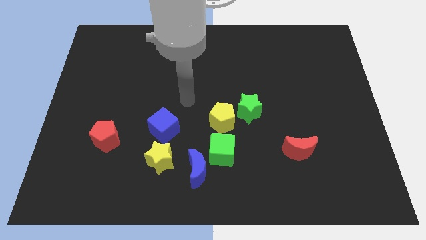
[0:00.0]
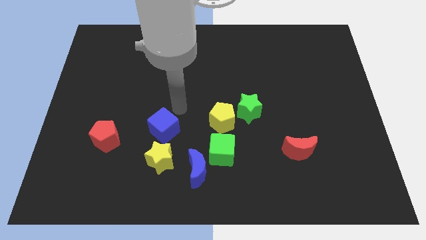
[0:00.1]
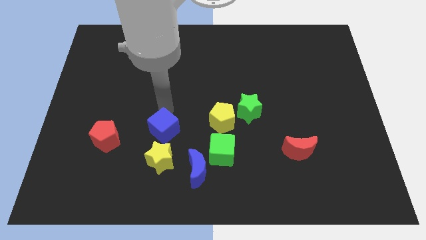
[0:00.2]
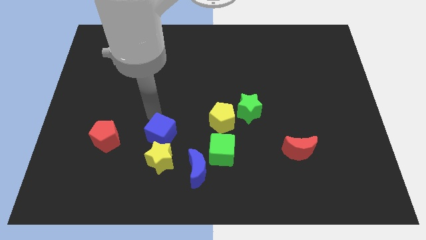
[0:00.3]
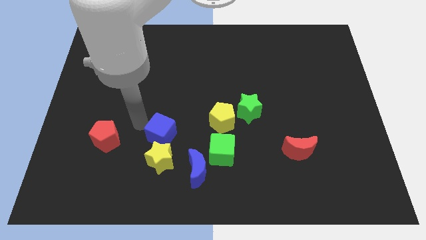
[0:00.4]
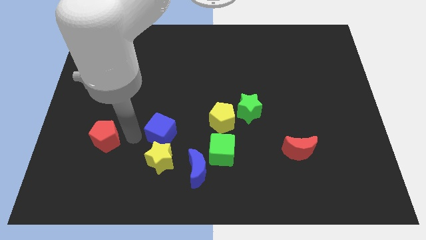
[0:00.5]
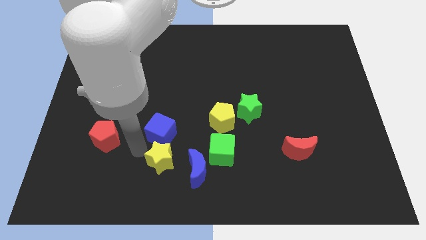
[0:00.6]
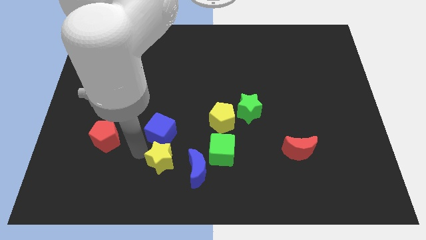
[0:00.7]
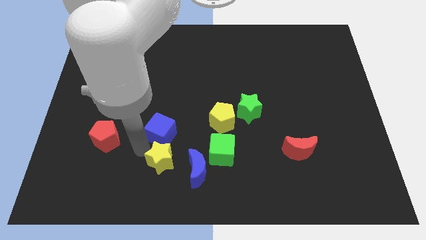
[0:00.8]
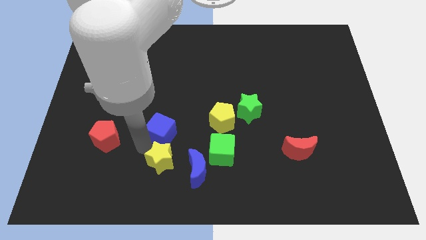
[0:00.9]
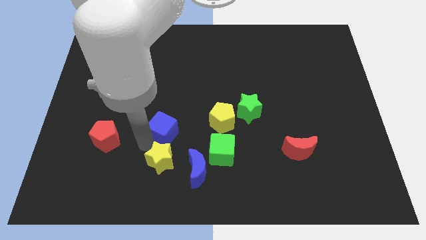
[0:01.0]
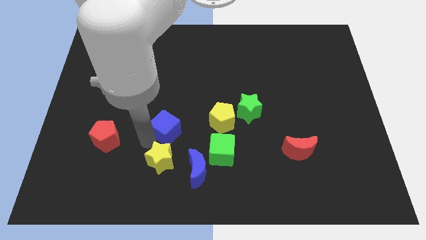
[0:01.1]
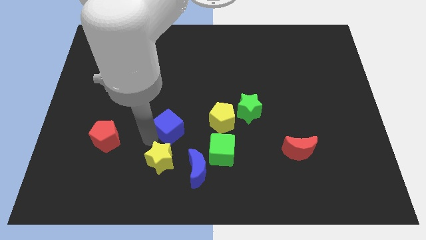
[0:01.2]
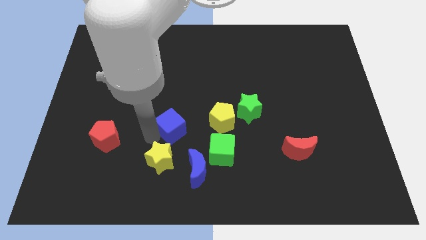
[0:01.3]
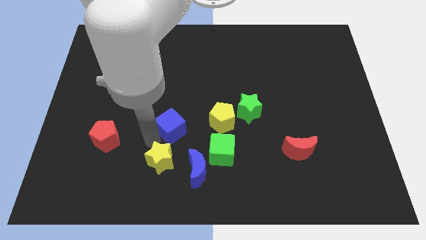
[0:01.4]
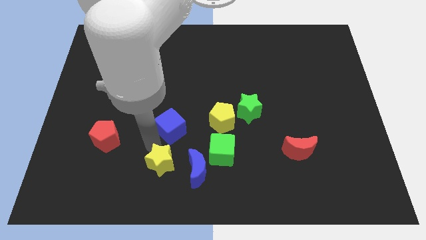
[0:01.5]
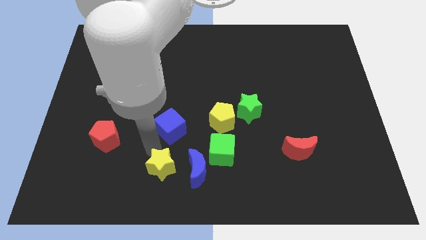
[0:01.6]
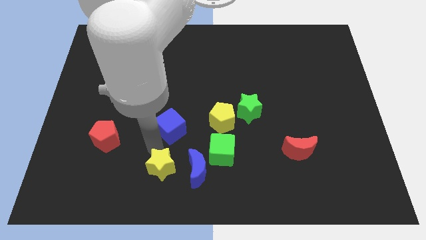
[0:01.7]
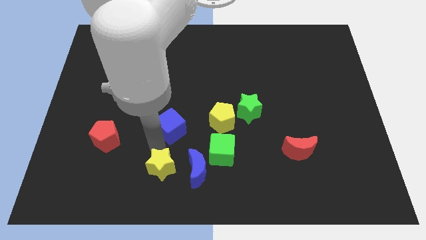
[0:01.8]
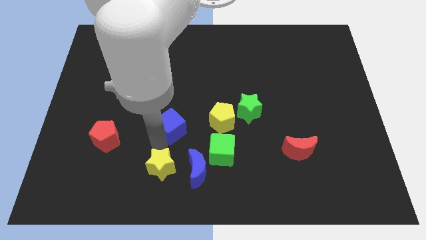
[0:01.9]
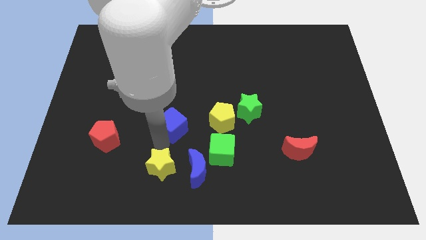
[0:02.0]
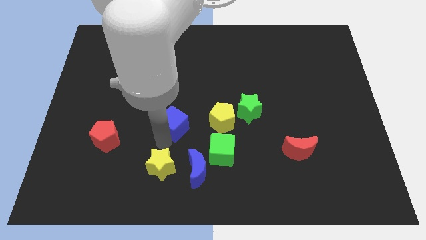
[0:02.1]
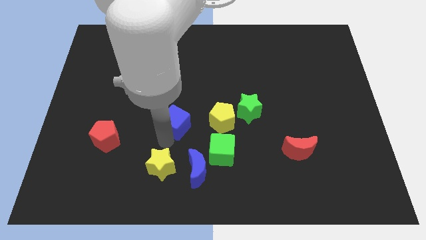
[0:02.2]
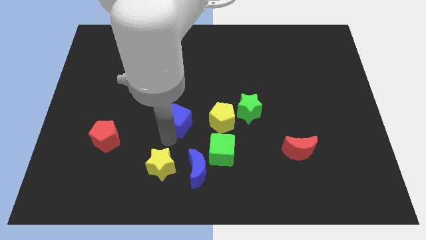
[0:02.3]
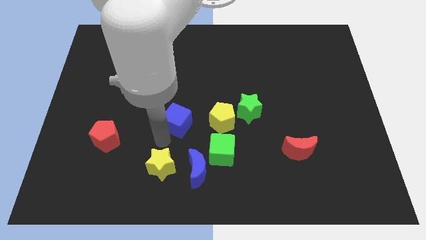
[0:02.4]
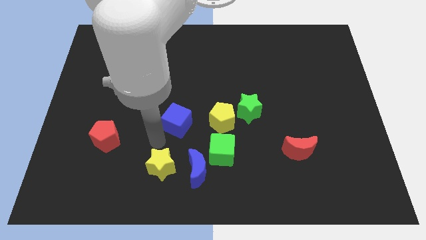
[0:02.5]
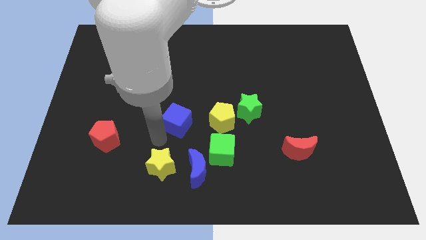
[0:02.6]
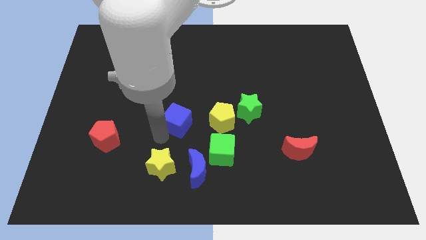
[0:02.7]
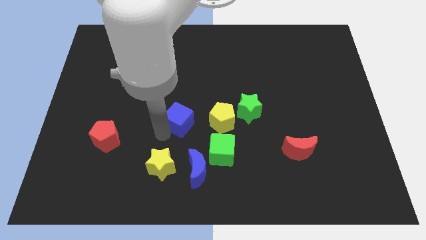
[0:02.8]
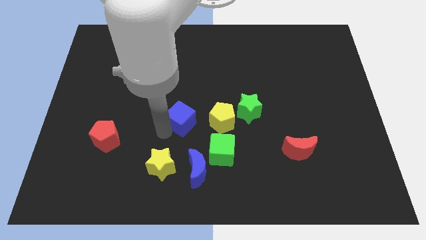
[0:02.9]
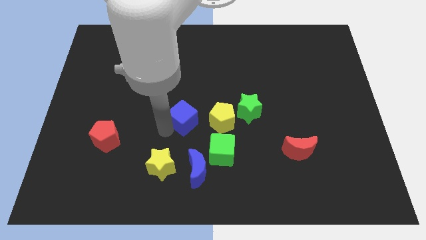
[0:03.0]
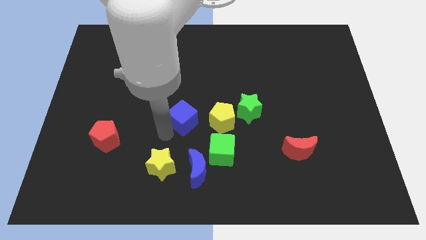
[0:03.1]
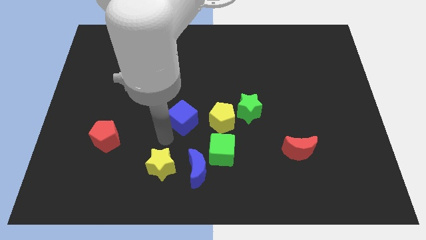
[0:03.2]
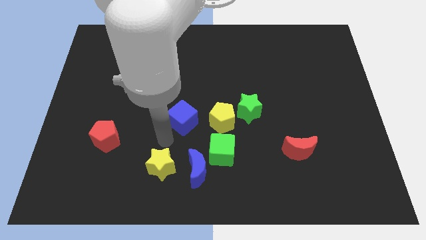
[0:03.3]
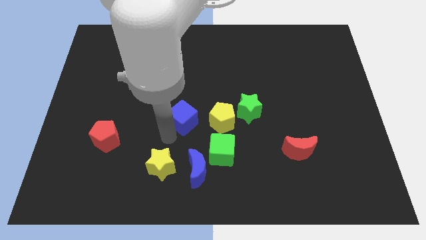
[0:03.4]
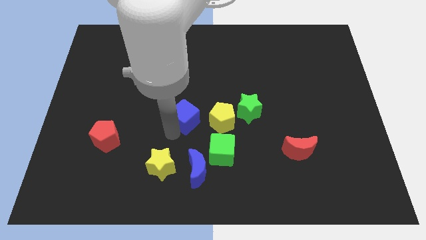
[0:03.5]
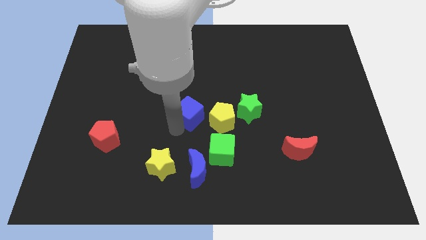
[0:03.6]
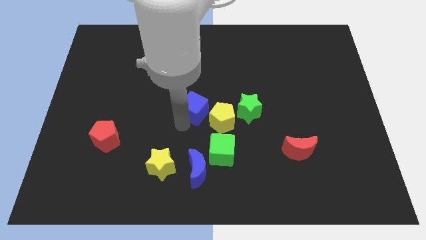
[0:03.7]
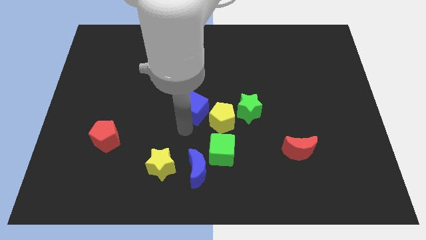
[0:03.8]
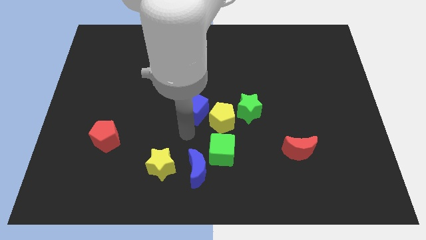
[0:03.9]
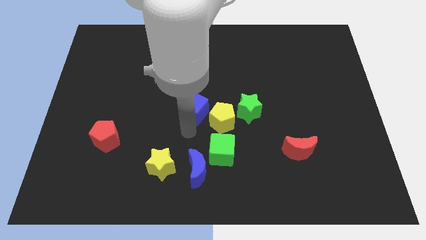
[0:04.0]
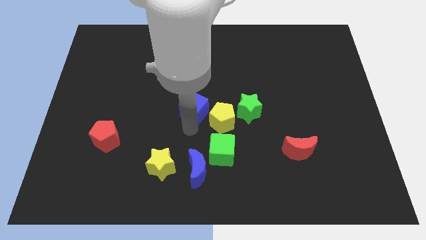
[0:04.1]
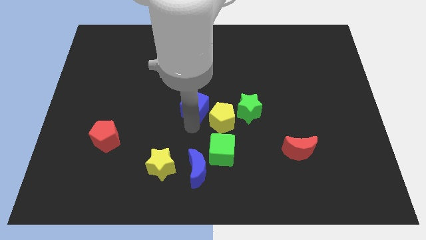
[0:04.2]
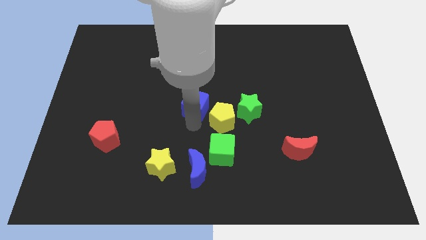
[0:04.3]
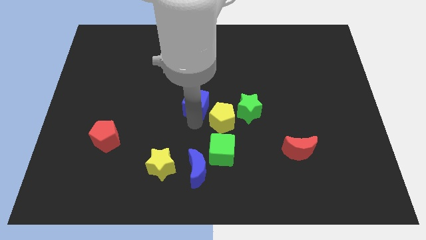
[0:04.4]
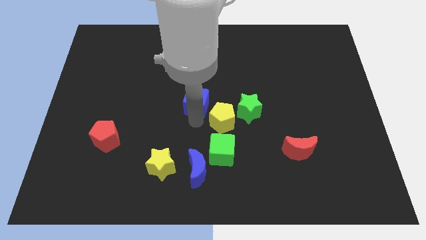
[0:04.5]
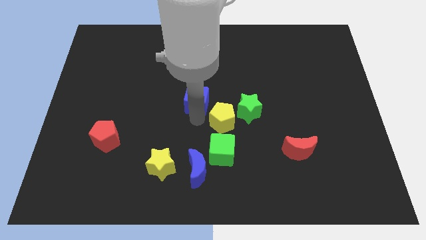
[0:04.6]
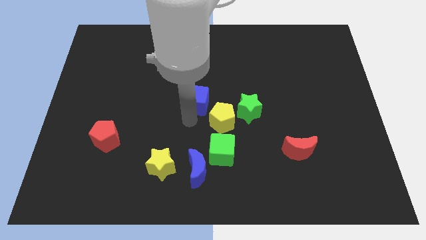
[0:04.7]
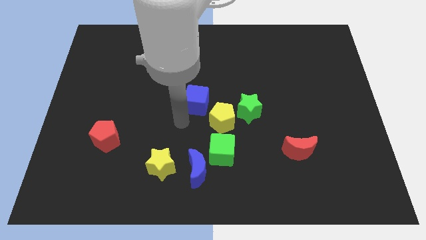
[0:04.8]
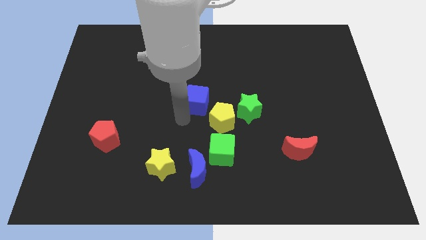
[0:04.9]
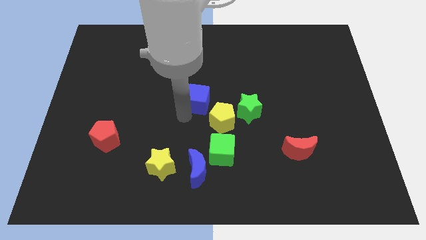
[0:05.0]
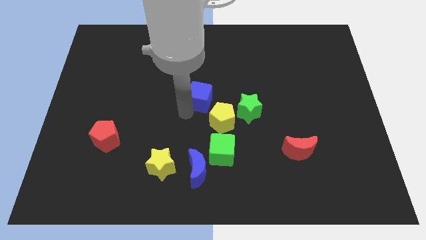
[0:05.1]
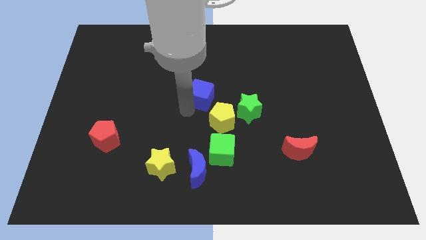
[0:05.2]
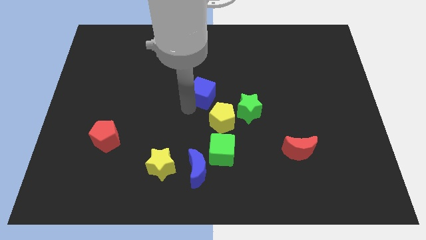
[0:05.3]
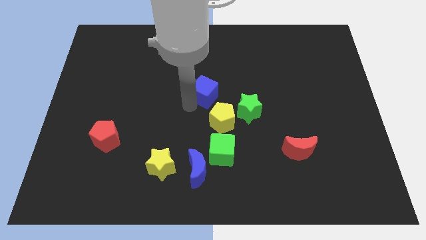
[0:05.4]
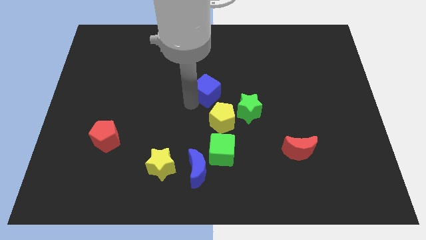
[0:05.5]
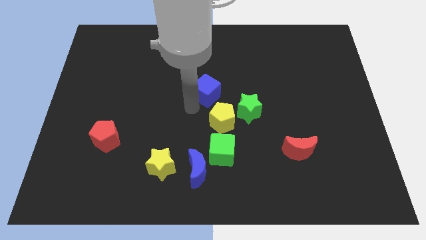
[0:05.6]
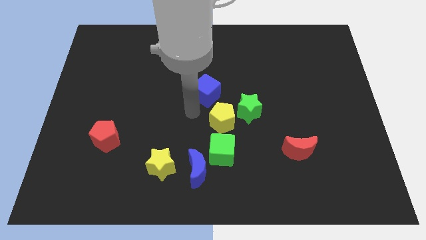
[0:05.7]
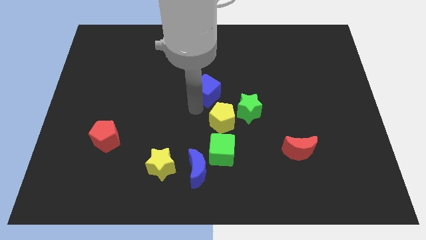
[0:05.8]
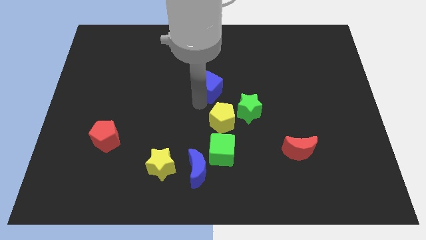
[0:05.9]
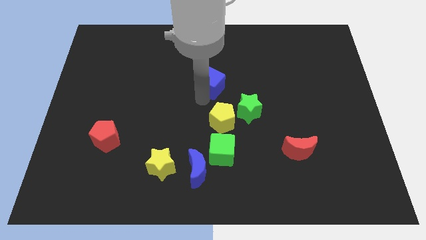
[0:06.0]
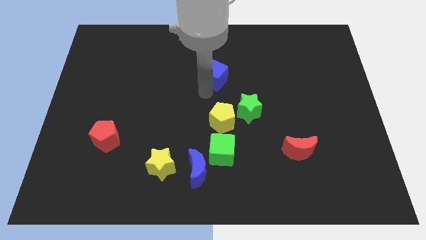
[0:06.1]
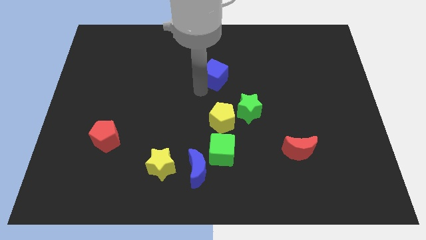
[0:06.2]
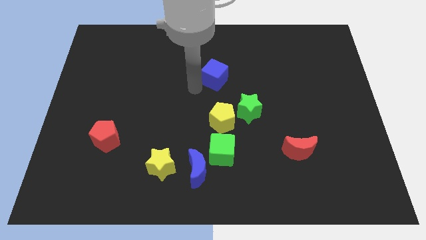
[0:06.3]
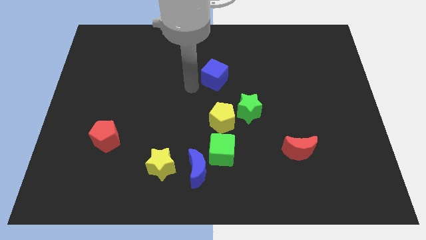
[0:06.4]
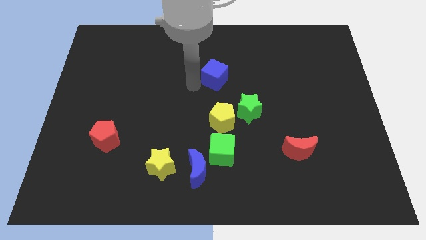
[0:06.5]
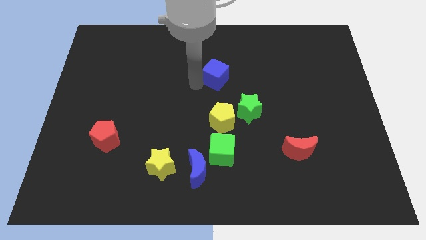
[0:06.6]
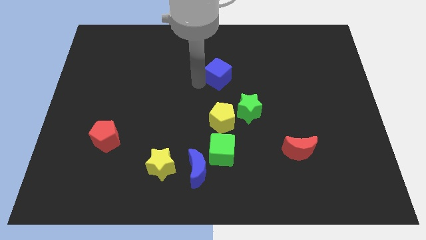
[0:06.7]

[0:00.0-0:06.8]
move the blue cube up and to the right diagonally

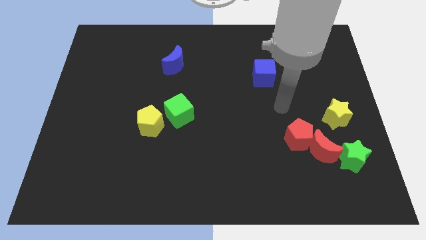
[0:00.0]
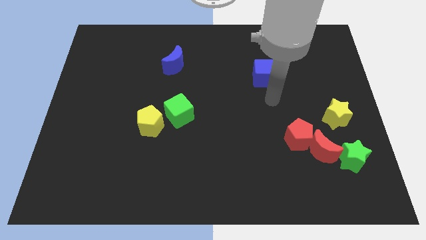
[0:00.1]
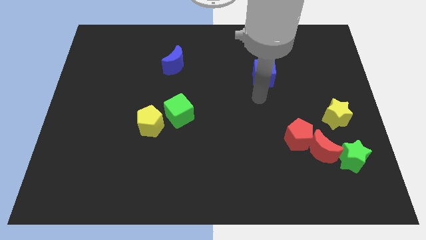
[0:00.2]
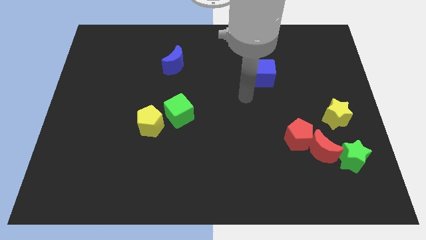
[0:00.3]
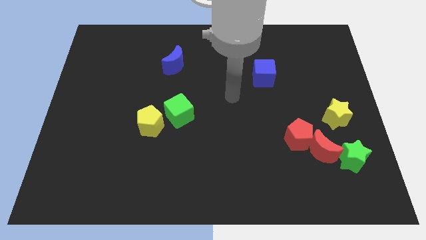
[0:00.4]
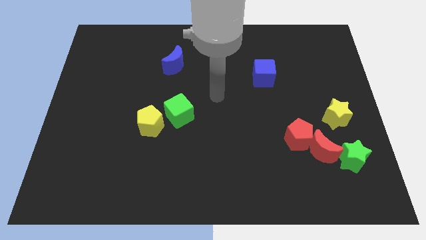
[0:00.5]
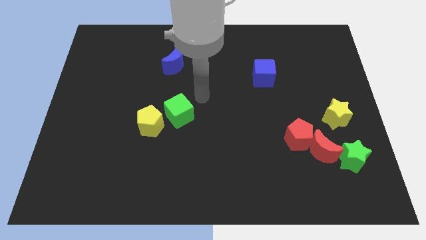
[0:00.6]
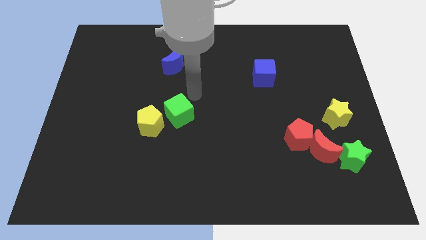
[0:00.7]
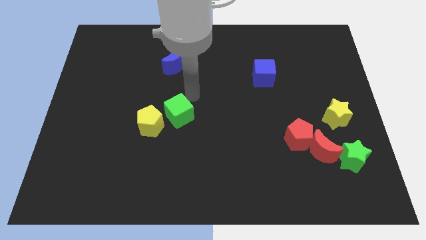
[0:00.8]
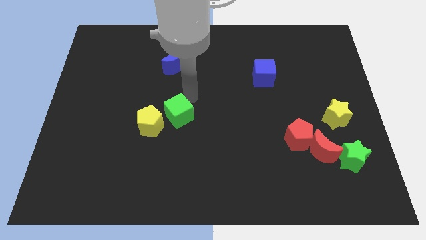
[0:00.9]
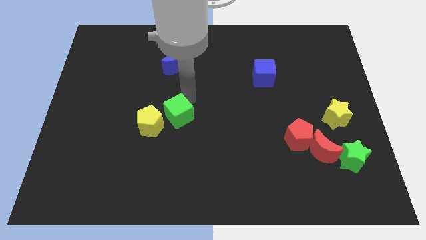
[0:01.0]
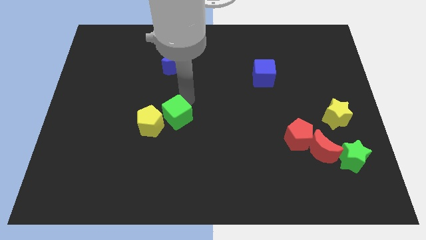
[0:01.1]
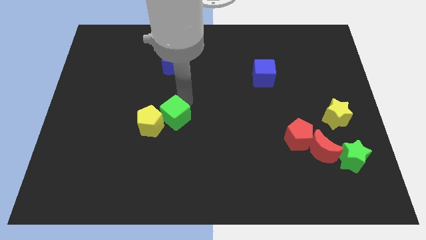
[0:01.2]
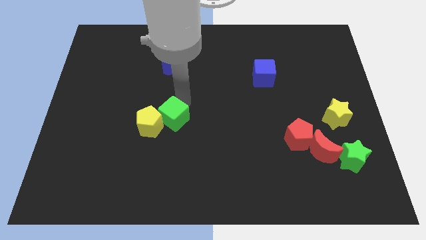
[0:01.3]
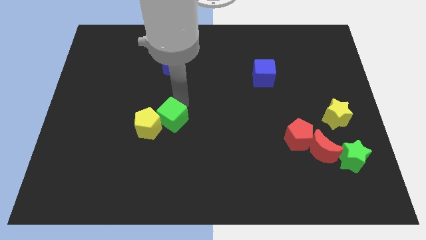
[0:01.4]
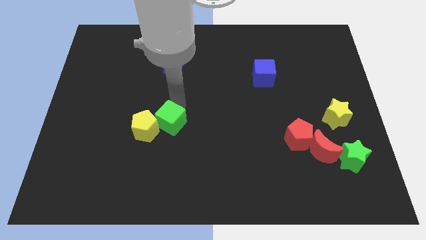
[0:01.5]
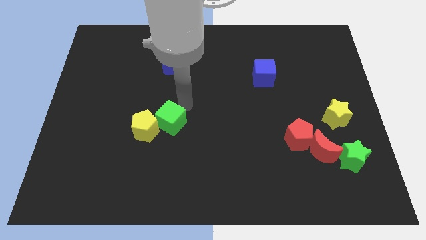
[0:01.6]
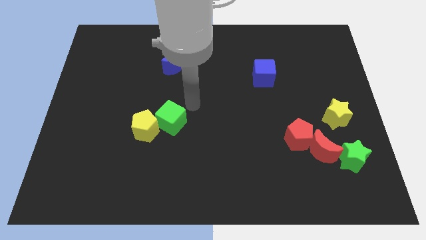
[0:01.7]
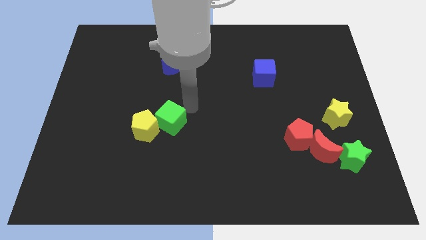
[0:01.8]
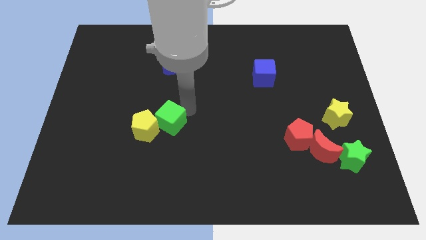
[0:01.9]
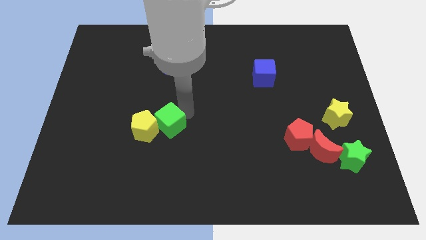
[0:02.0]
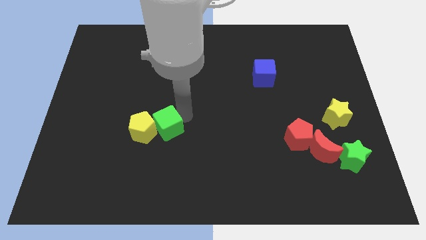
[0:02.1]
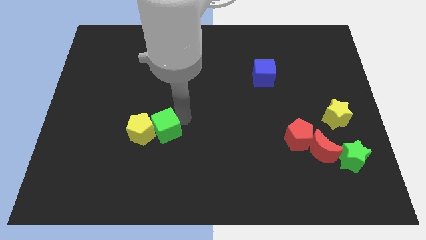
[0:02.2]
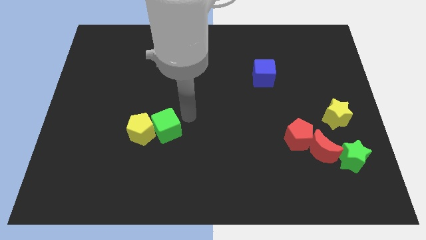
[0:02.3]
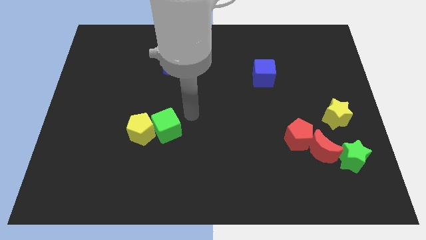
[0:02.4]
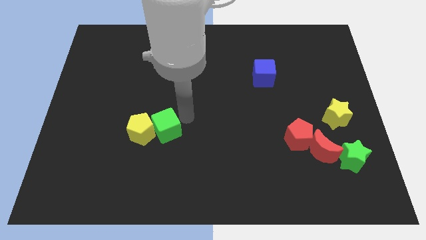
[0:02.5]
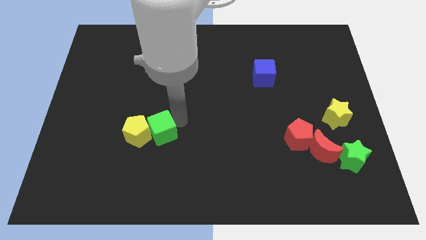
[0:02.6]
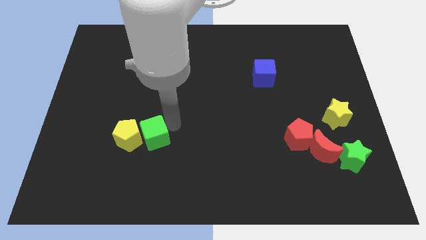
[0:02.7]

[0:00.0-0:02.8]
slide the green cube slightly downwards and left
